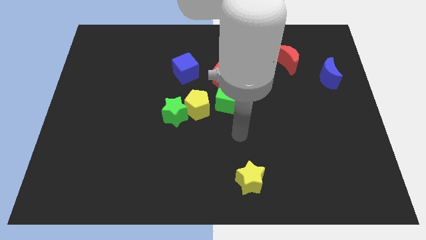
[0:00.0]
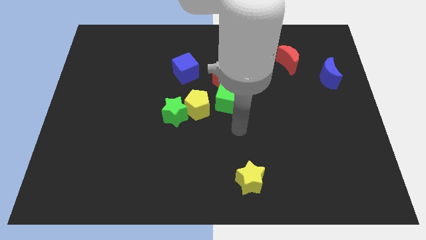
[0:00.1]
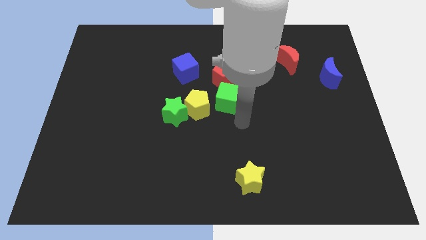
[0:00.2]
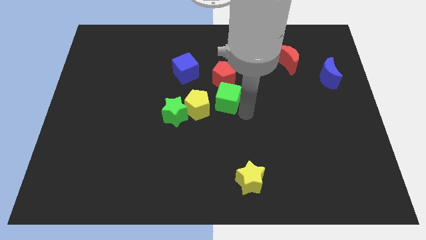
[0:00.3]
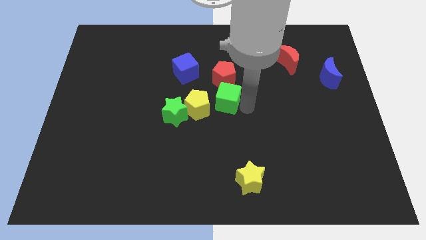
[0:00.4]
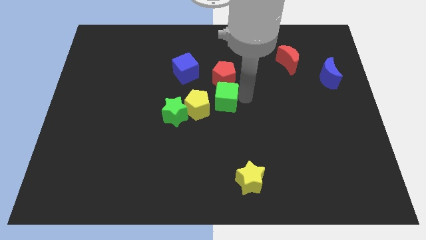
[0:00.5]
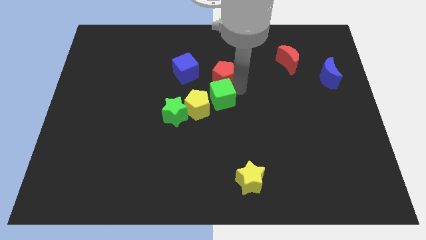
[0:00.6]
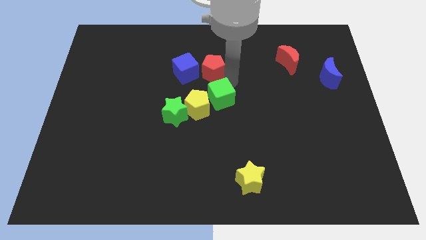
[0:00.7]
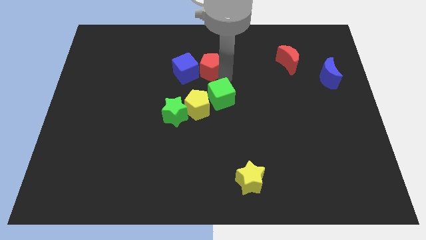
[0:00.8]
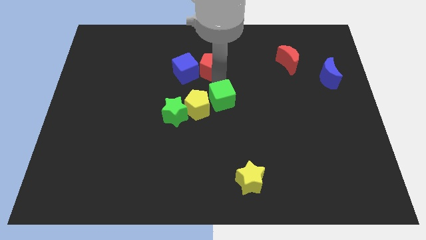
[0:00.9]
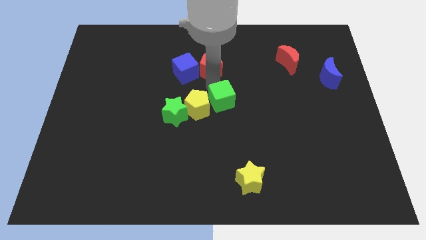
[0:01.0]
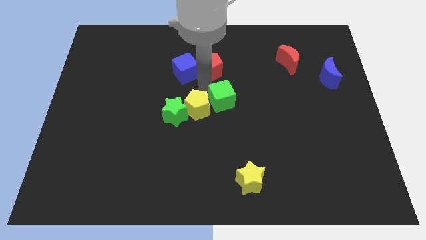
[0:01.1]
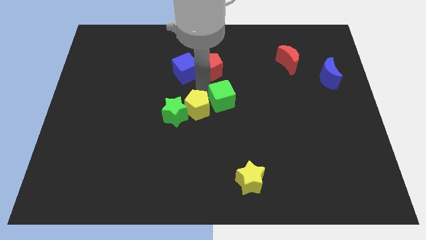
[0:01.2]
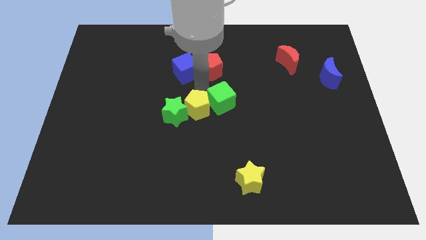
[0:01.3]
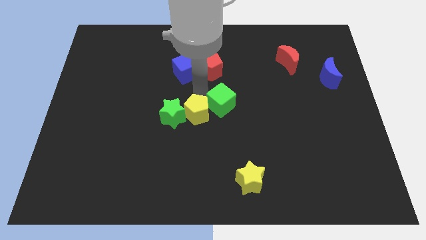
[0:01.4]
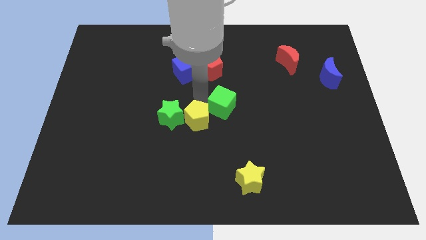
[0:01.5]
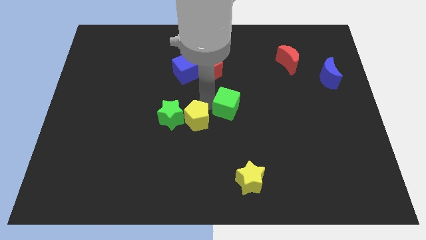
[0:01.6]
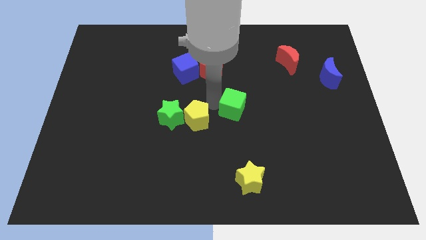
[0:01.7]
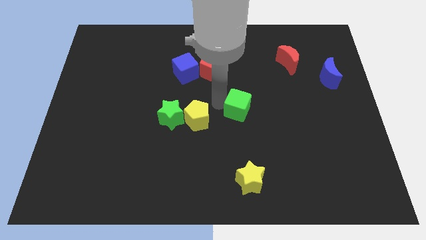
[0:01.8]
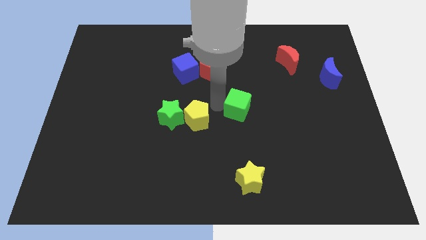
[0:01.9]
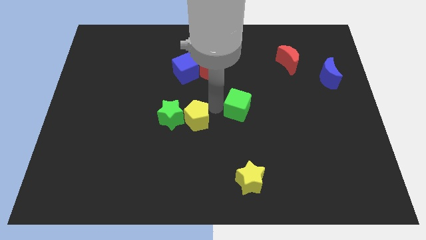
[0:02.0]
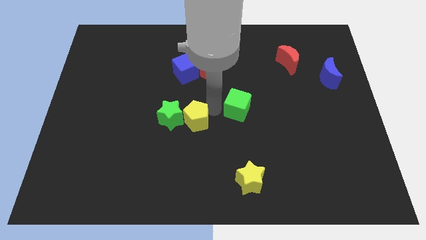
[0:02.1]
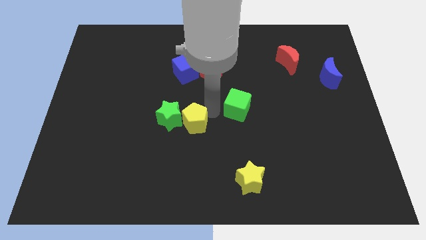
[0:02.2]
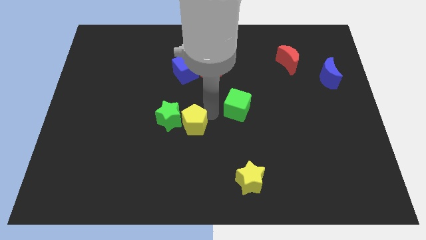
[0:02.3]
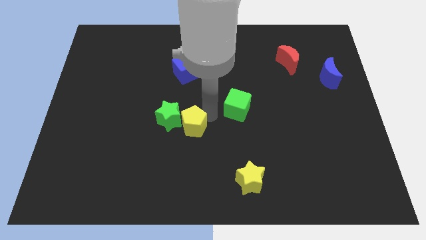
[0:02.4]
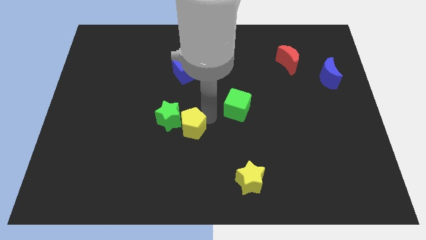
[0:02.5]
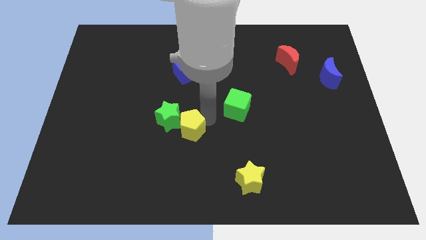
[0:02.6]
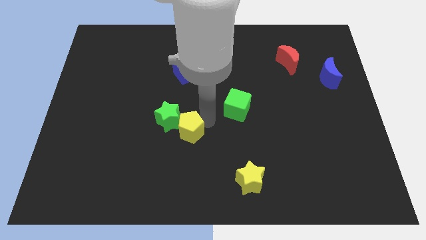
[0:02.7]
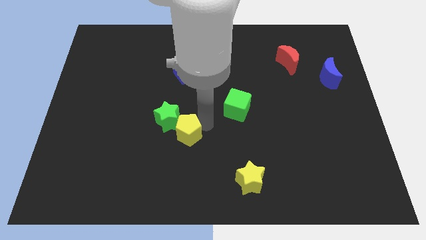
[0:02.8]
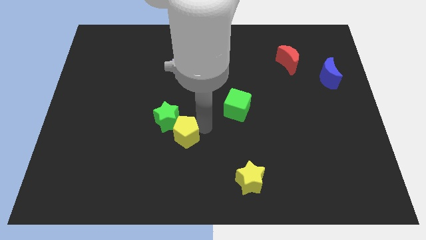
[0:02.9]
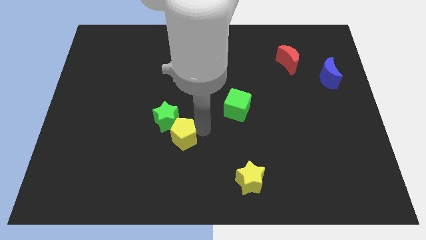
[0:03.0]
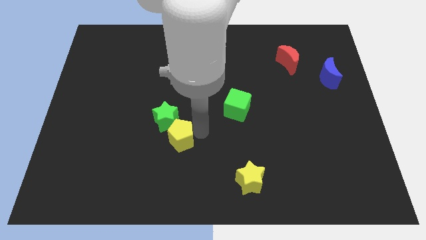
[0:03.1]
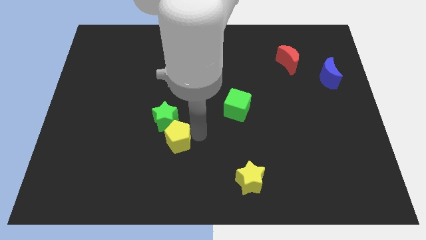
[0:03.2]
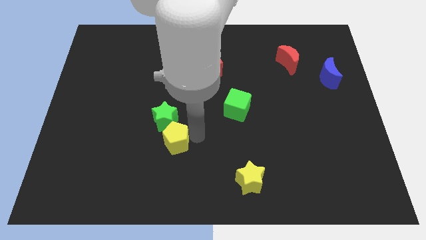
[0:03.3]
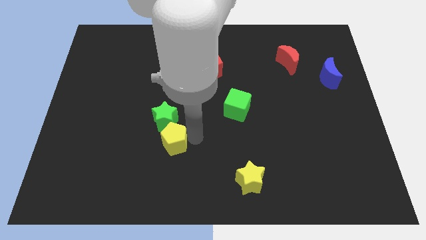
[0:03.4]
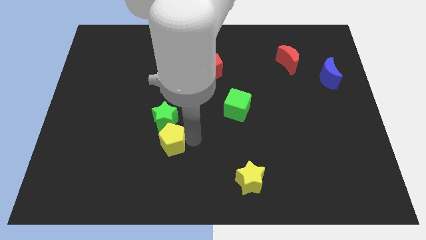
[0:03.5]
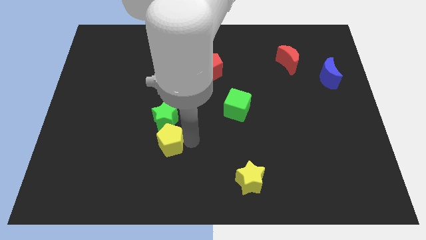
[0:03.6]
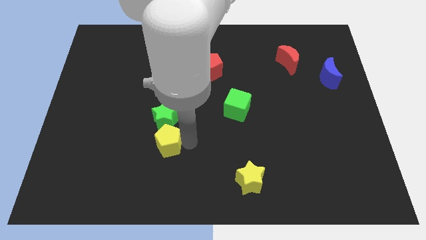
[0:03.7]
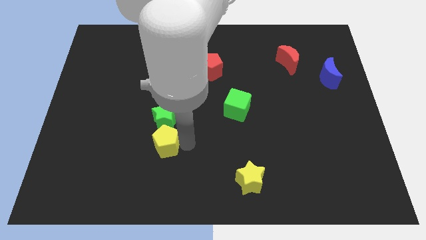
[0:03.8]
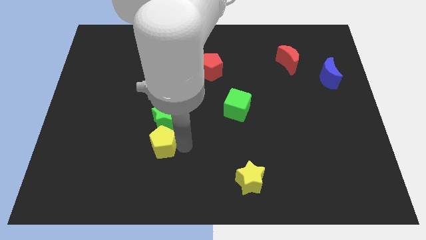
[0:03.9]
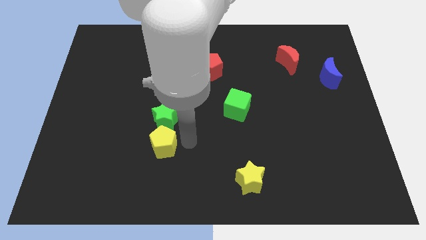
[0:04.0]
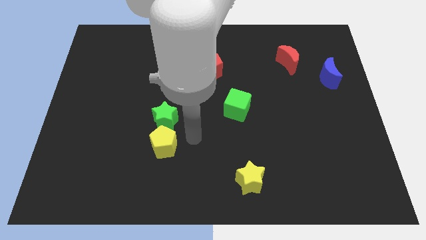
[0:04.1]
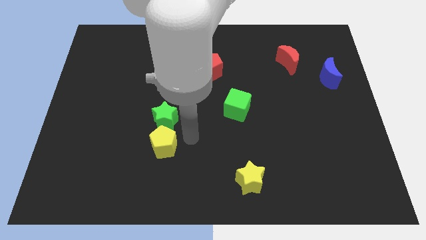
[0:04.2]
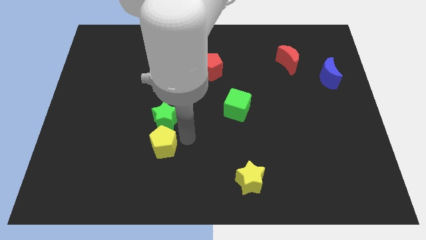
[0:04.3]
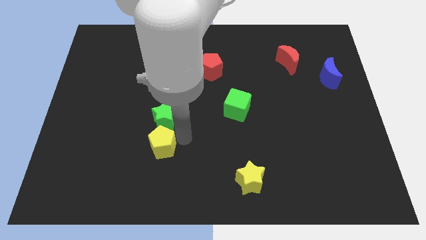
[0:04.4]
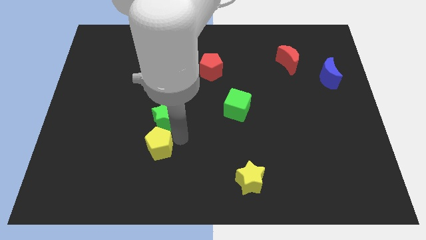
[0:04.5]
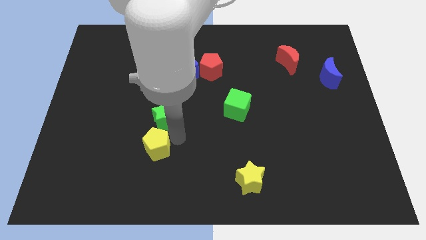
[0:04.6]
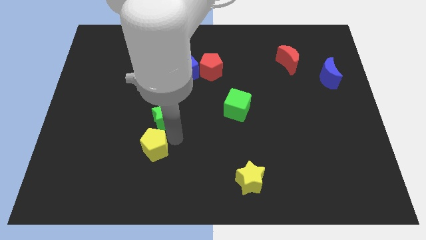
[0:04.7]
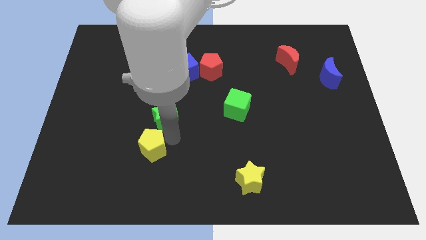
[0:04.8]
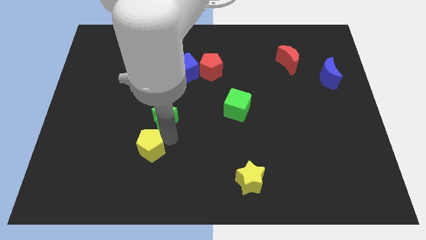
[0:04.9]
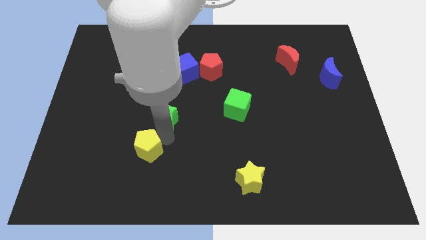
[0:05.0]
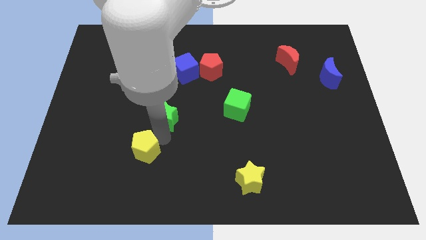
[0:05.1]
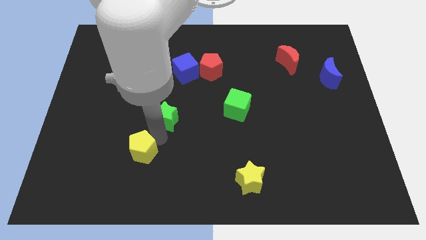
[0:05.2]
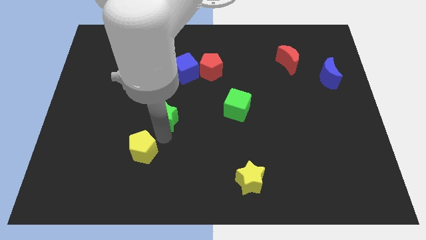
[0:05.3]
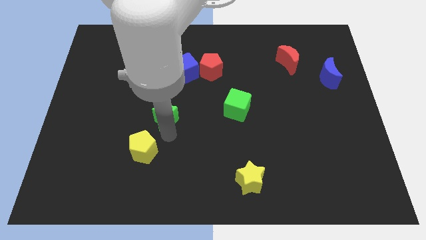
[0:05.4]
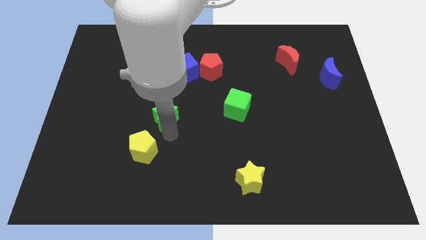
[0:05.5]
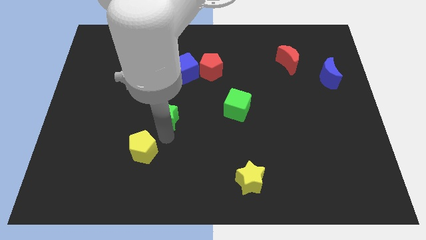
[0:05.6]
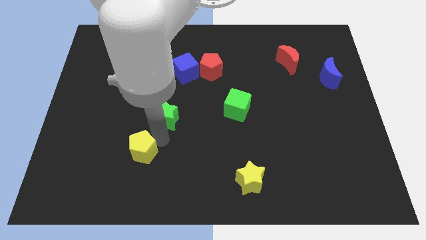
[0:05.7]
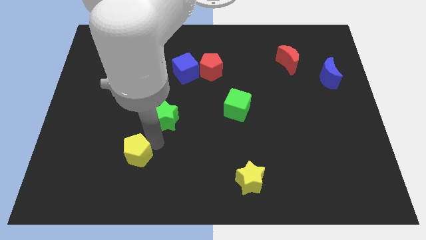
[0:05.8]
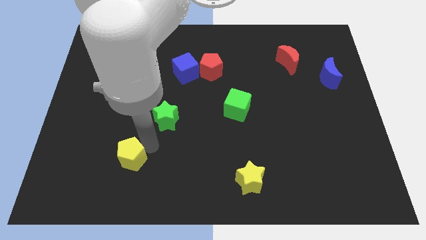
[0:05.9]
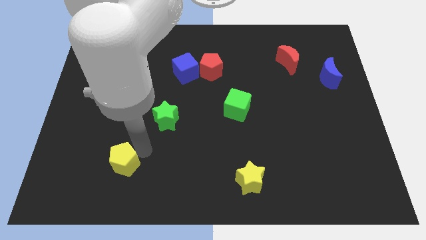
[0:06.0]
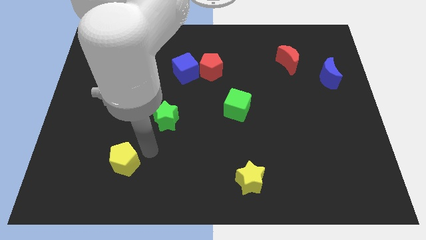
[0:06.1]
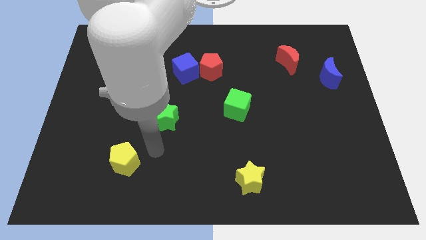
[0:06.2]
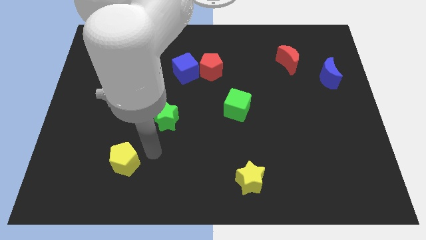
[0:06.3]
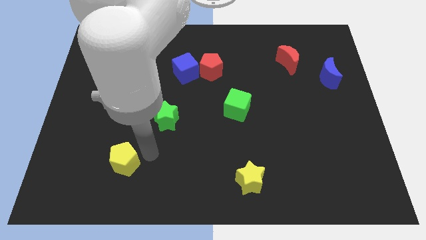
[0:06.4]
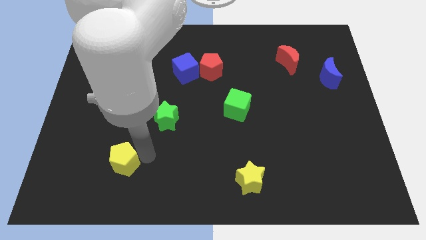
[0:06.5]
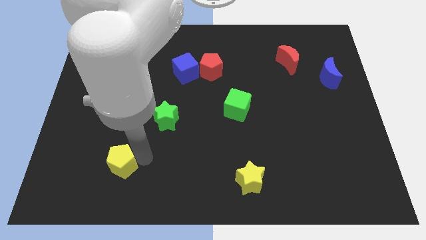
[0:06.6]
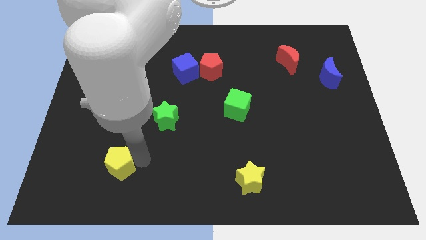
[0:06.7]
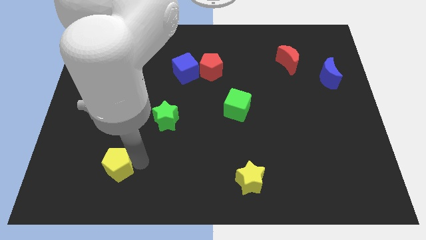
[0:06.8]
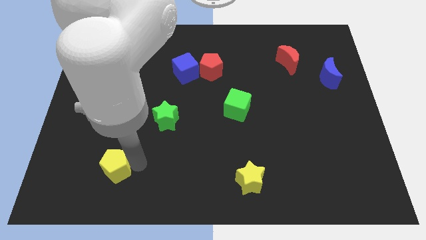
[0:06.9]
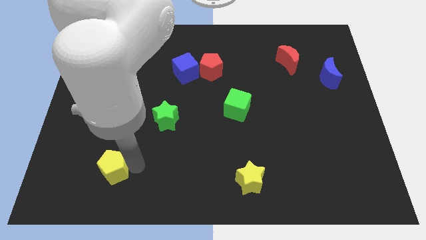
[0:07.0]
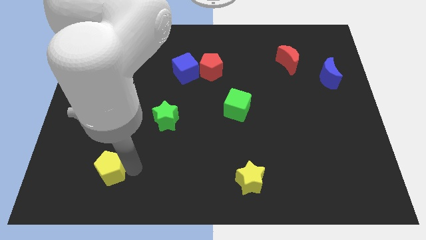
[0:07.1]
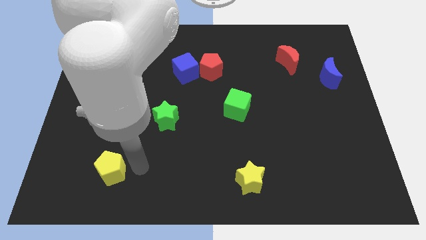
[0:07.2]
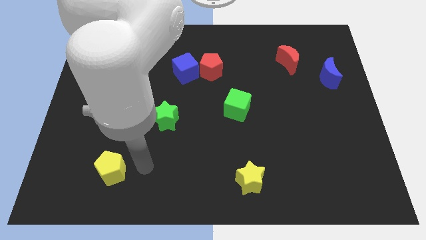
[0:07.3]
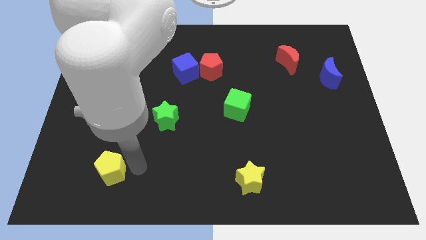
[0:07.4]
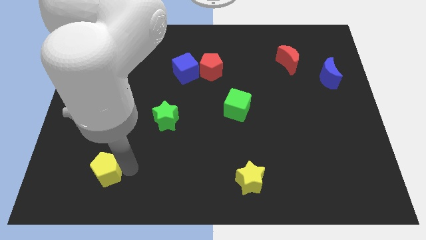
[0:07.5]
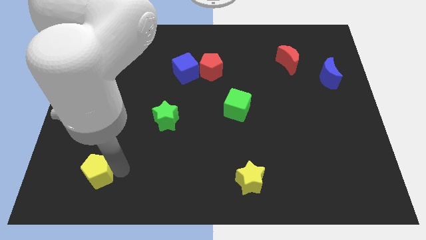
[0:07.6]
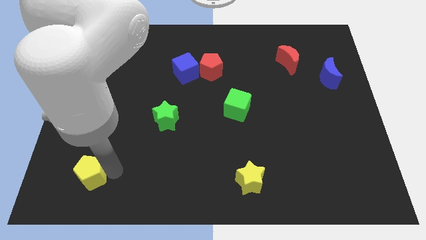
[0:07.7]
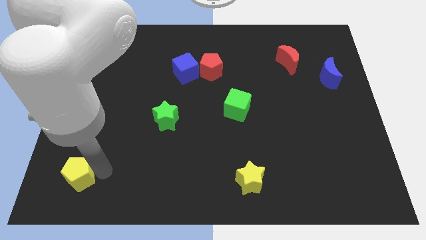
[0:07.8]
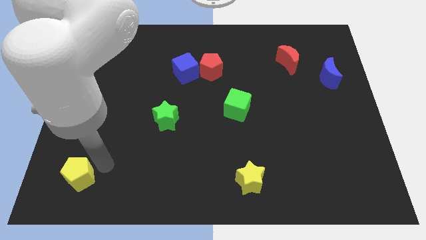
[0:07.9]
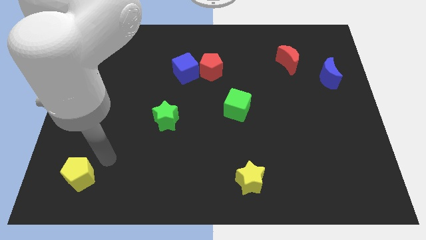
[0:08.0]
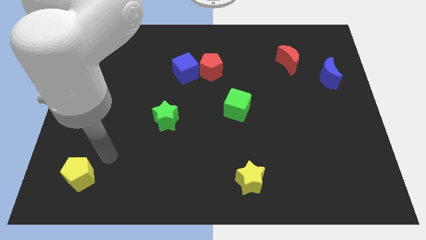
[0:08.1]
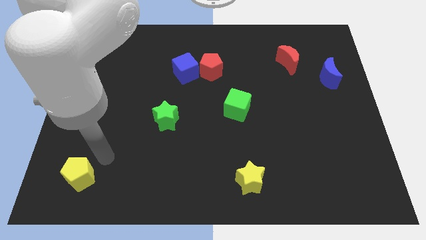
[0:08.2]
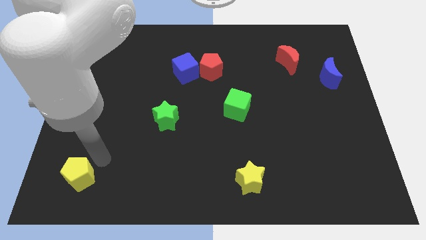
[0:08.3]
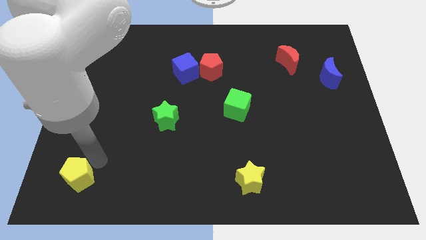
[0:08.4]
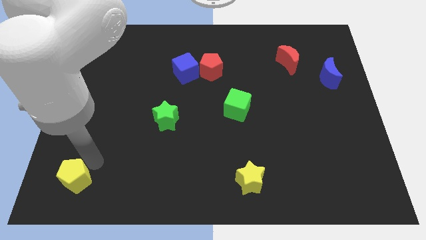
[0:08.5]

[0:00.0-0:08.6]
move the yellow pentagon to the bottom left of the board
